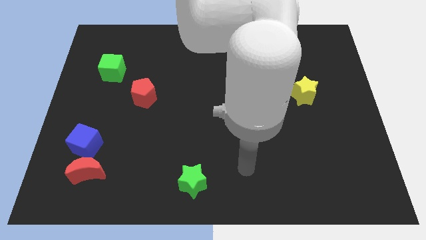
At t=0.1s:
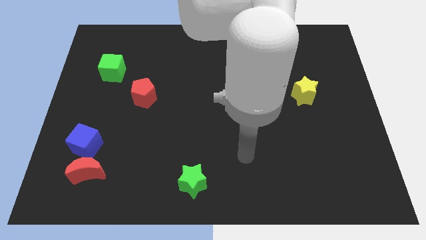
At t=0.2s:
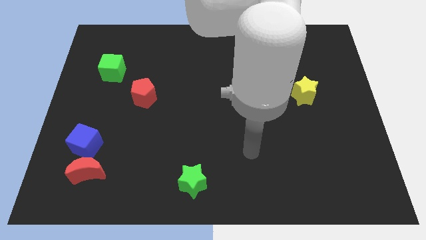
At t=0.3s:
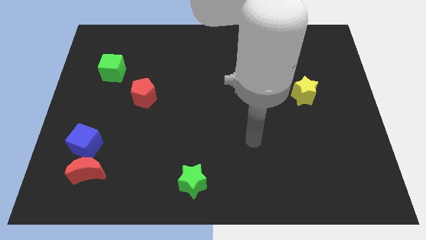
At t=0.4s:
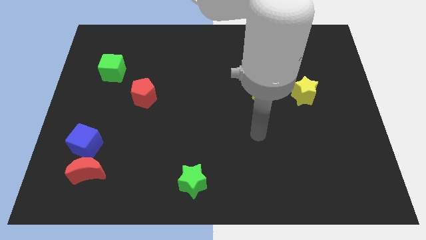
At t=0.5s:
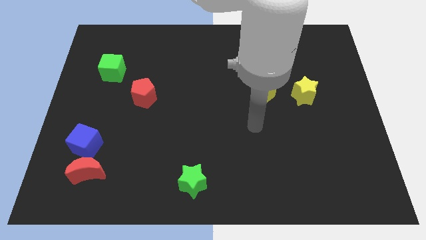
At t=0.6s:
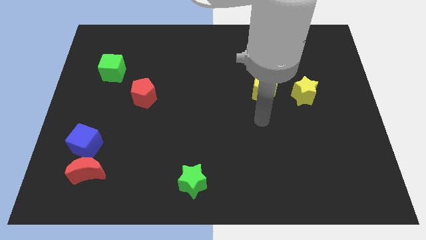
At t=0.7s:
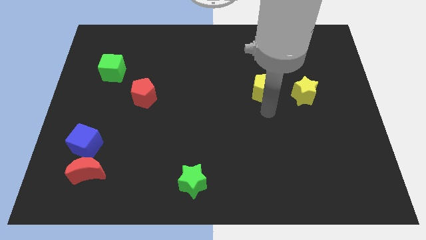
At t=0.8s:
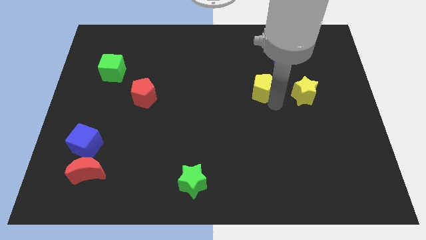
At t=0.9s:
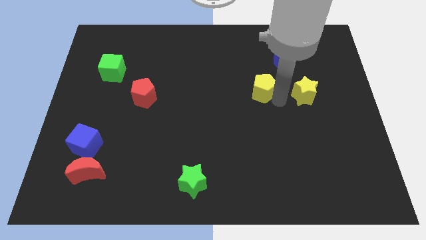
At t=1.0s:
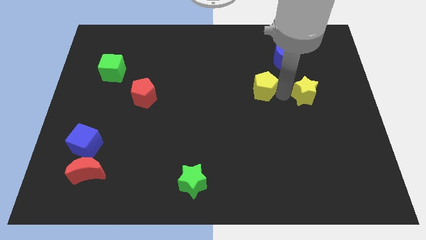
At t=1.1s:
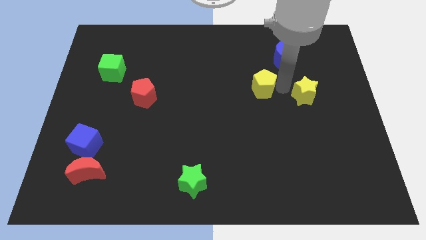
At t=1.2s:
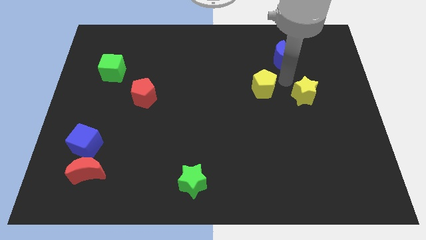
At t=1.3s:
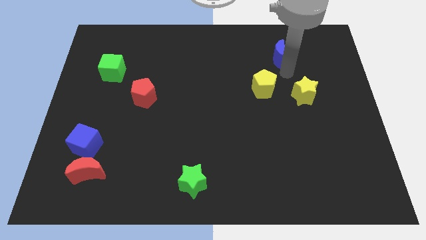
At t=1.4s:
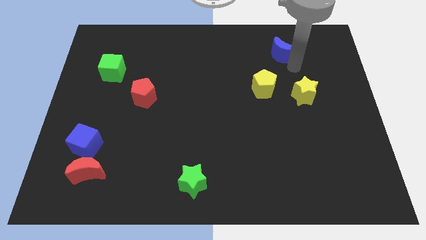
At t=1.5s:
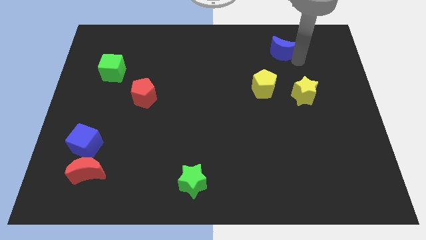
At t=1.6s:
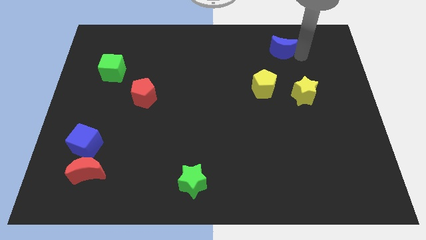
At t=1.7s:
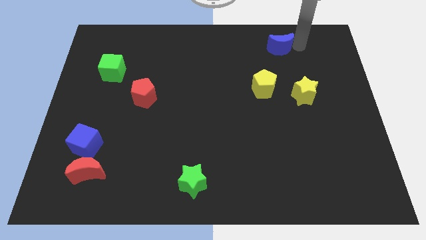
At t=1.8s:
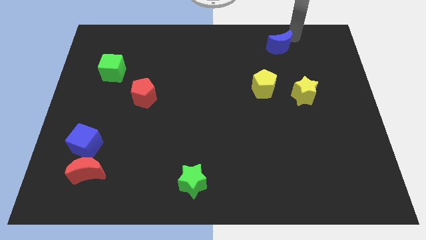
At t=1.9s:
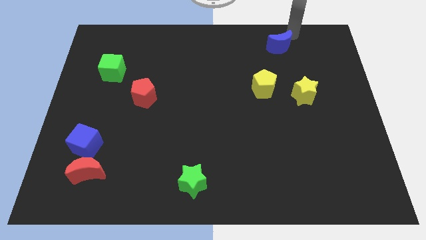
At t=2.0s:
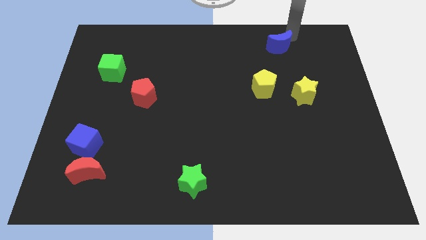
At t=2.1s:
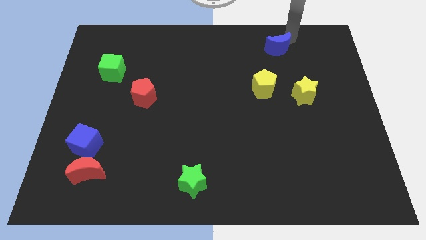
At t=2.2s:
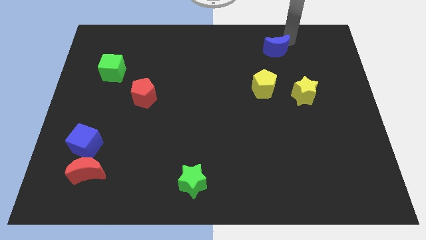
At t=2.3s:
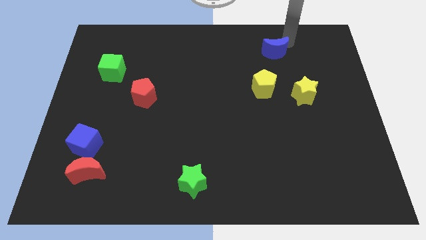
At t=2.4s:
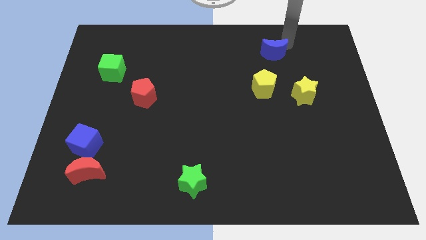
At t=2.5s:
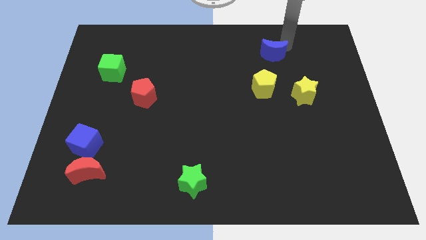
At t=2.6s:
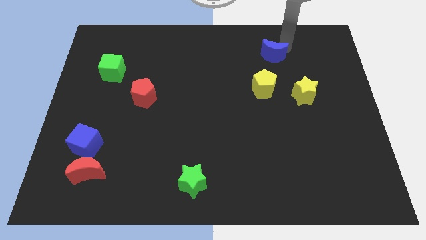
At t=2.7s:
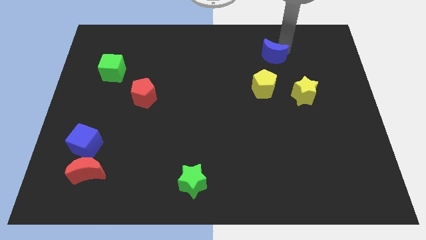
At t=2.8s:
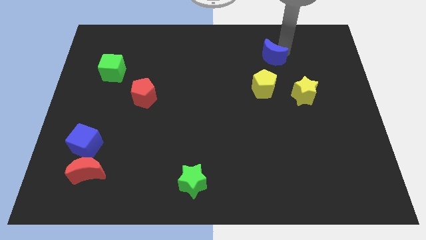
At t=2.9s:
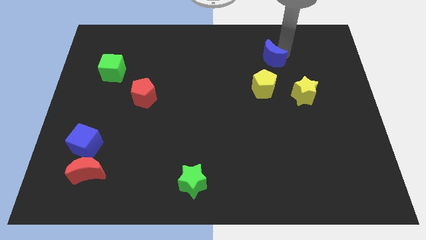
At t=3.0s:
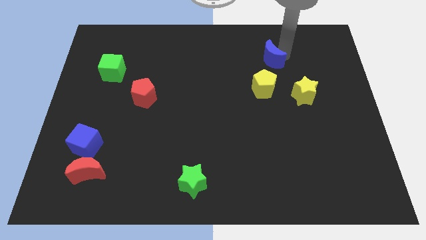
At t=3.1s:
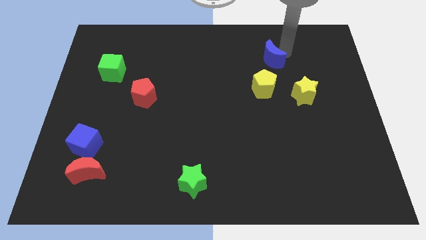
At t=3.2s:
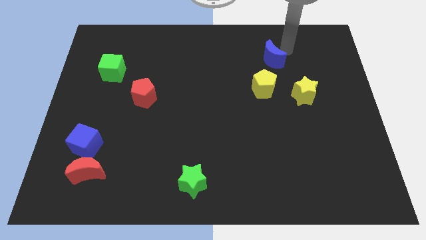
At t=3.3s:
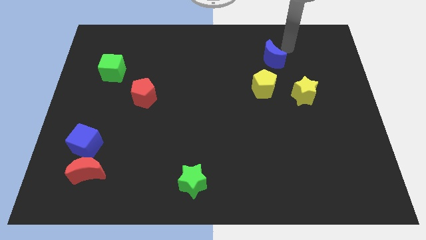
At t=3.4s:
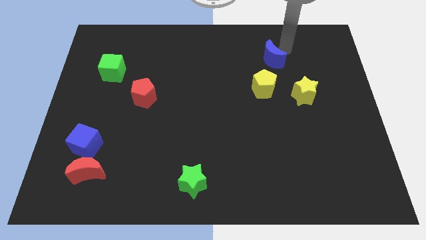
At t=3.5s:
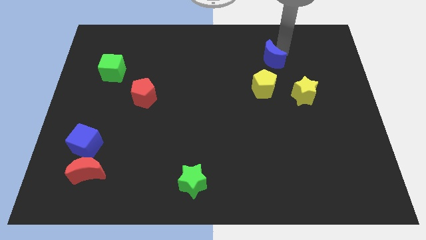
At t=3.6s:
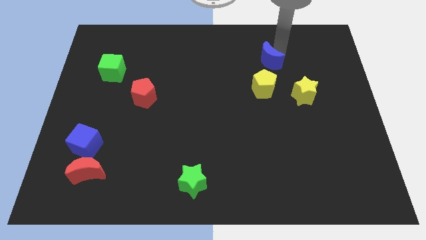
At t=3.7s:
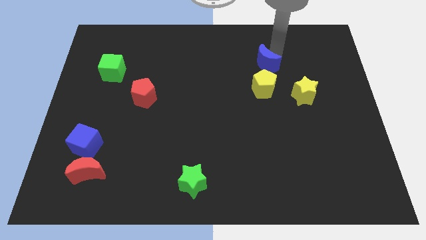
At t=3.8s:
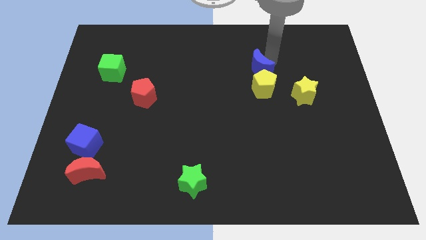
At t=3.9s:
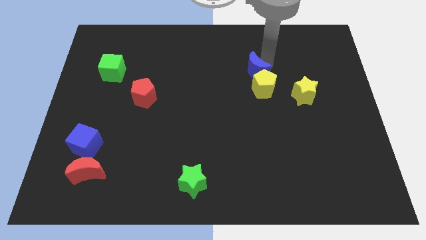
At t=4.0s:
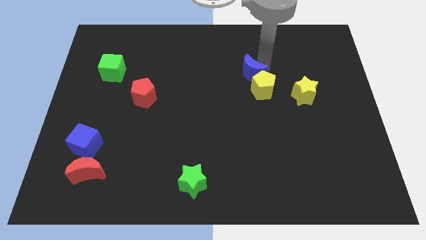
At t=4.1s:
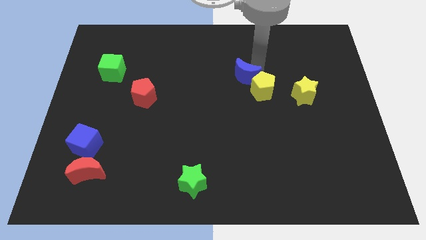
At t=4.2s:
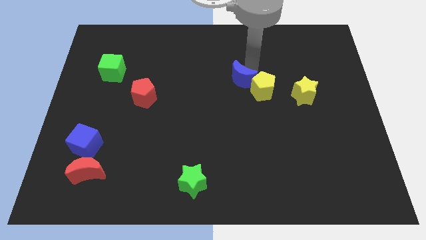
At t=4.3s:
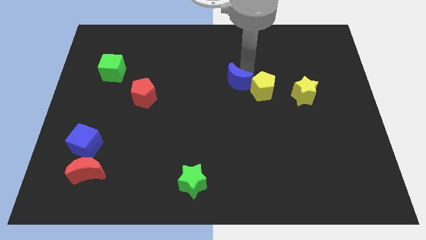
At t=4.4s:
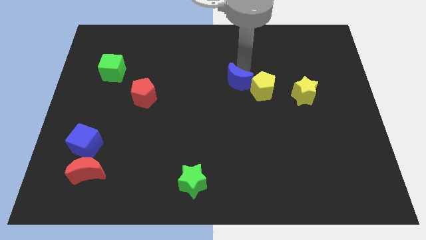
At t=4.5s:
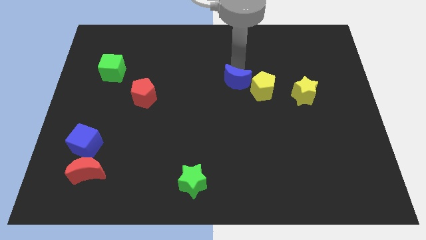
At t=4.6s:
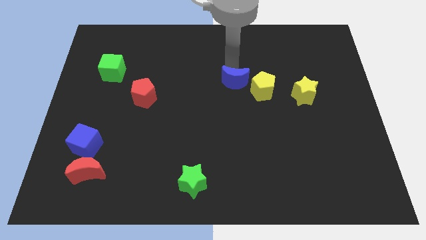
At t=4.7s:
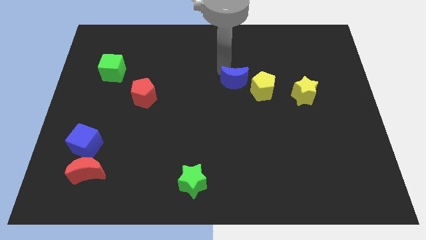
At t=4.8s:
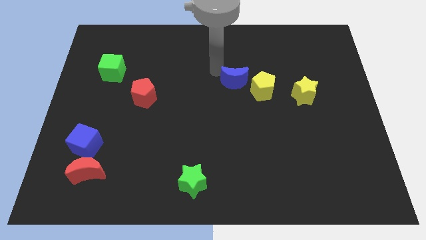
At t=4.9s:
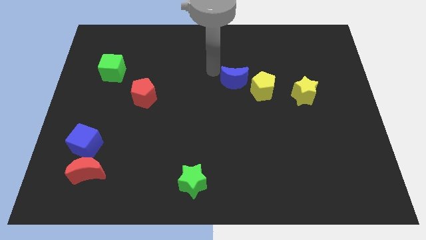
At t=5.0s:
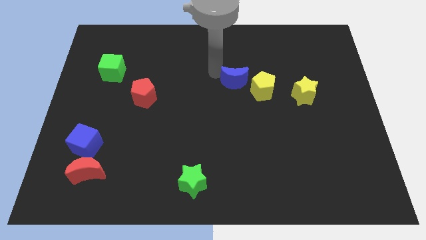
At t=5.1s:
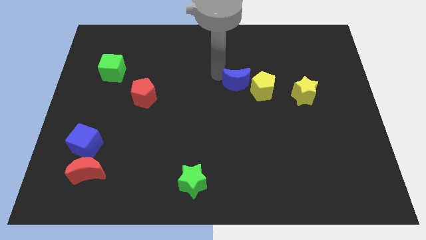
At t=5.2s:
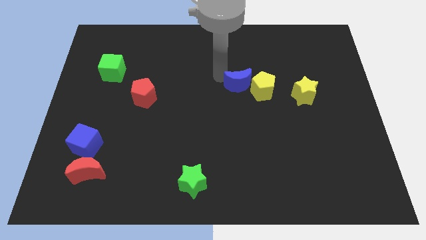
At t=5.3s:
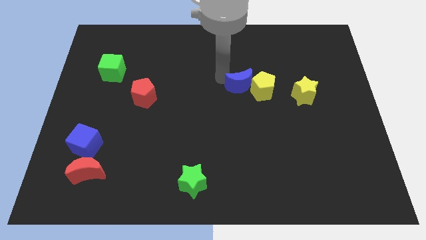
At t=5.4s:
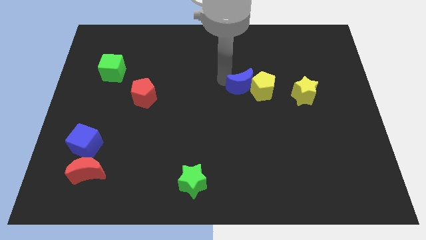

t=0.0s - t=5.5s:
put the blue moon to the left side of the yellow star

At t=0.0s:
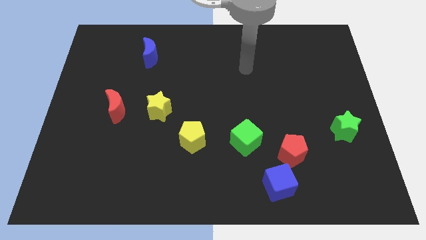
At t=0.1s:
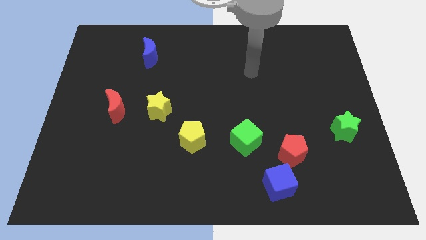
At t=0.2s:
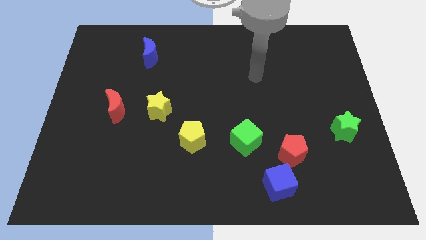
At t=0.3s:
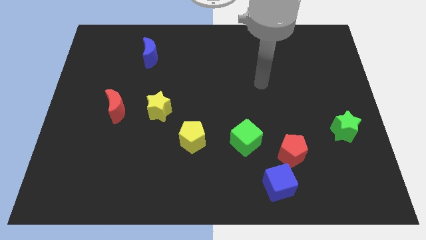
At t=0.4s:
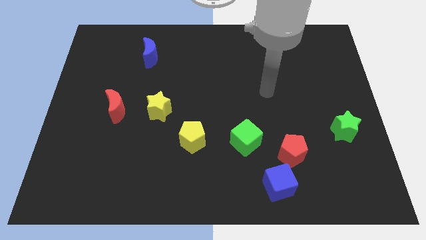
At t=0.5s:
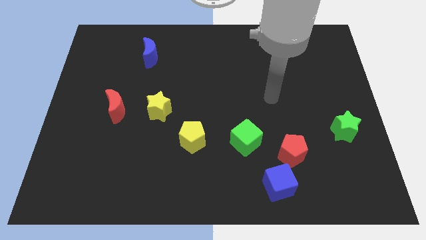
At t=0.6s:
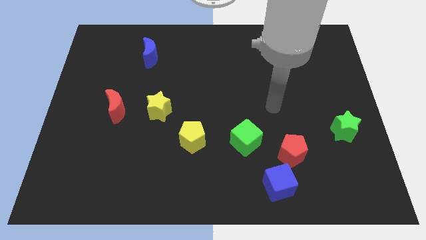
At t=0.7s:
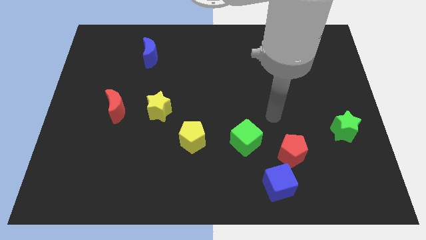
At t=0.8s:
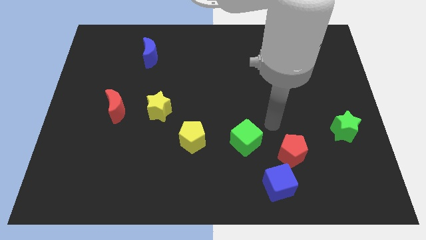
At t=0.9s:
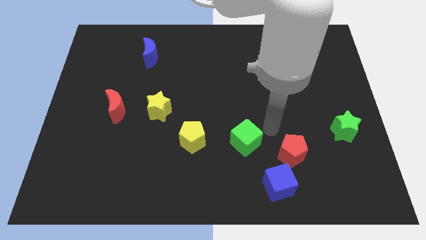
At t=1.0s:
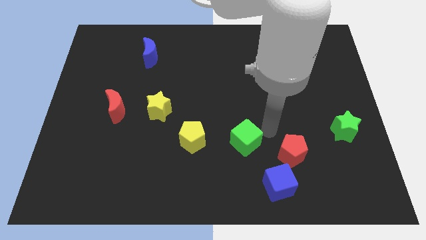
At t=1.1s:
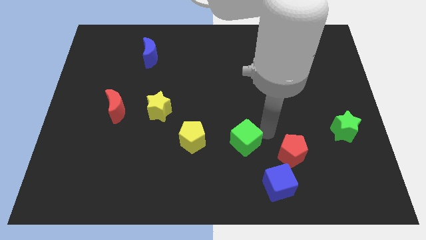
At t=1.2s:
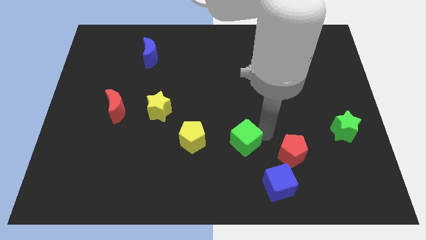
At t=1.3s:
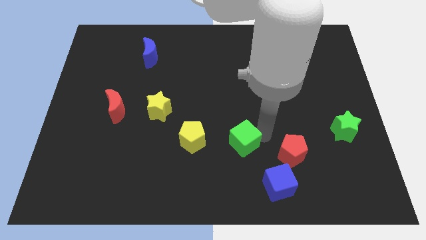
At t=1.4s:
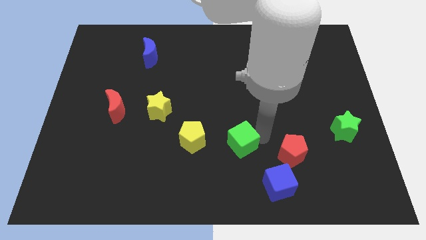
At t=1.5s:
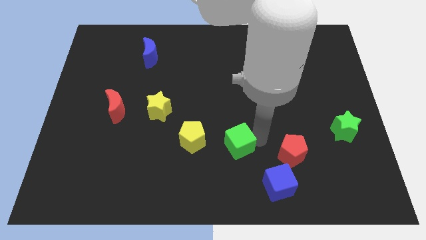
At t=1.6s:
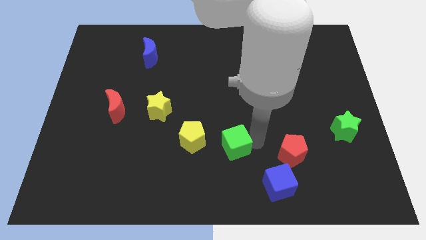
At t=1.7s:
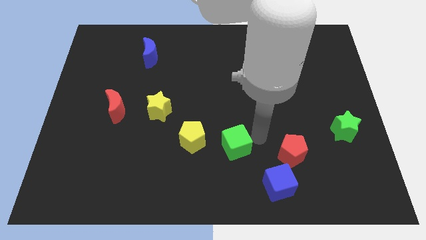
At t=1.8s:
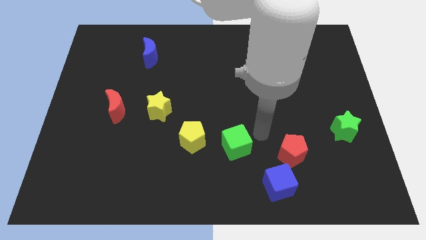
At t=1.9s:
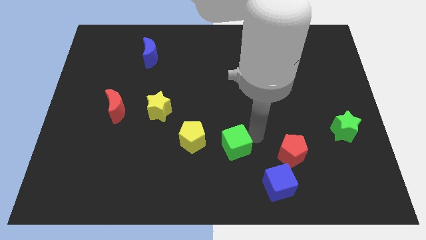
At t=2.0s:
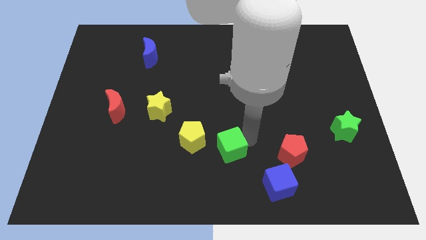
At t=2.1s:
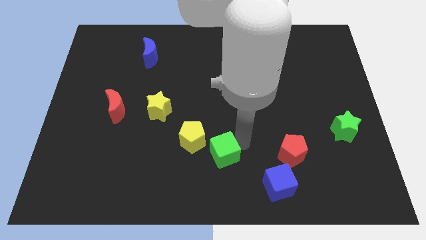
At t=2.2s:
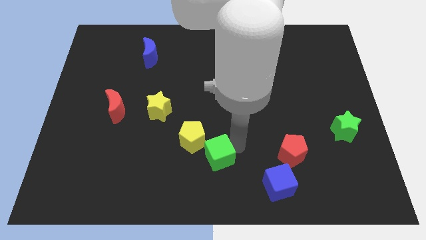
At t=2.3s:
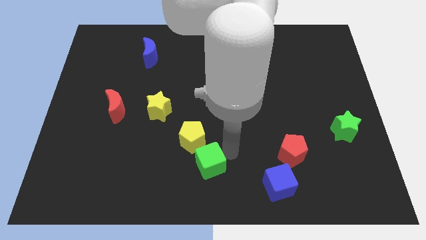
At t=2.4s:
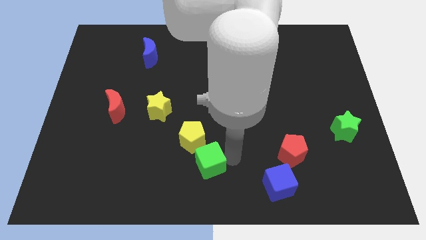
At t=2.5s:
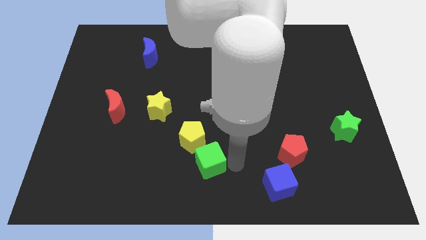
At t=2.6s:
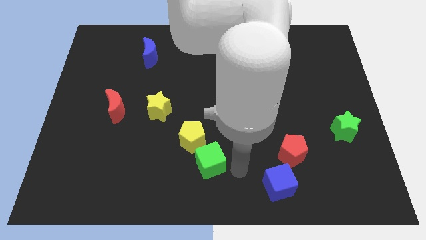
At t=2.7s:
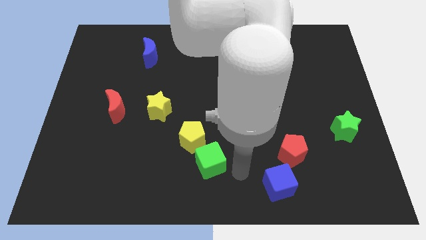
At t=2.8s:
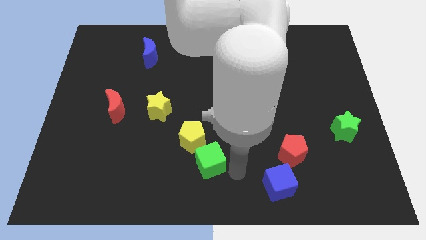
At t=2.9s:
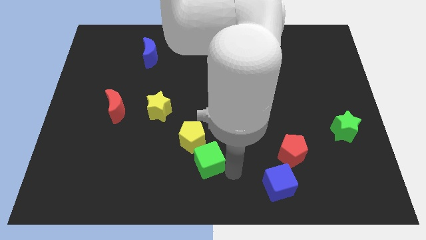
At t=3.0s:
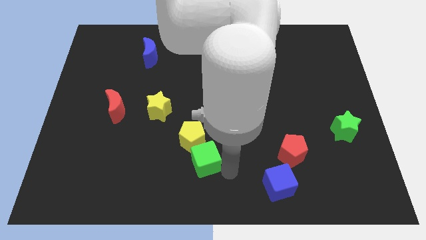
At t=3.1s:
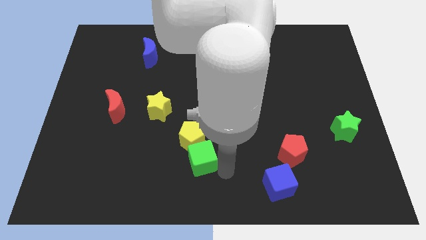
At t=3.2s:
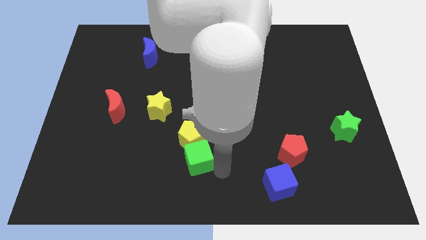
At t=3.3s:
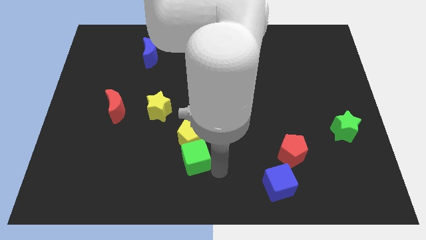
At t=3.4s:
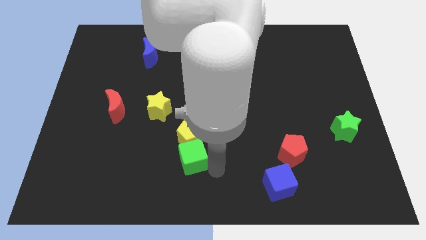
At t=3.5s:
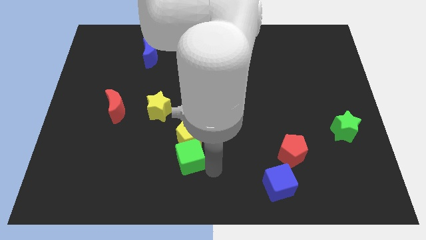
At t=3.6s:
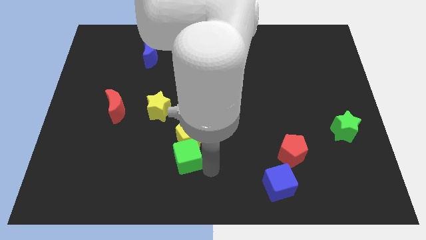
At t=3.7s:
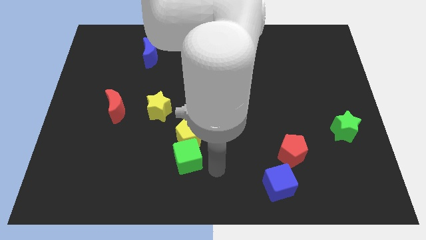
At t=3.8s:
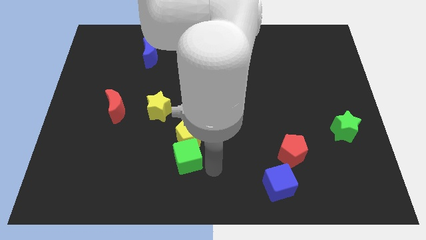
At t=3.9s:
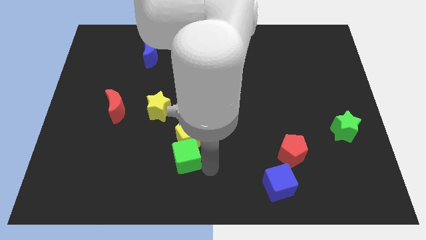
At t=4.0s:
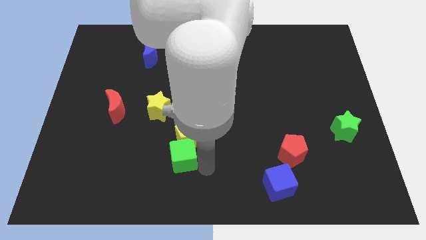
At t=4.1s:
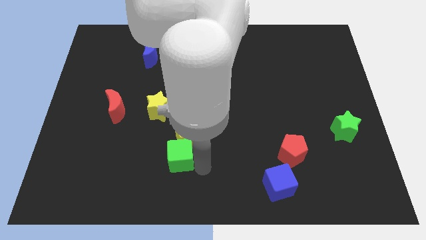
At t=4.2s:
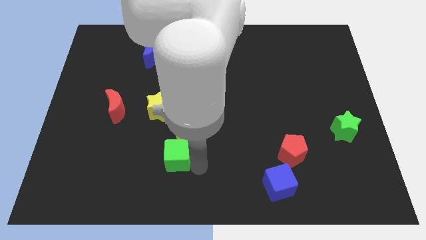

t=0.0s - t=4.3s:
slide the green cube below the yellow star
